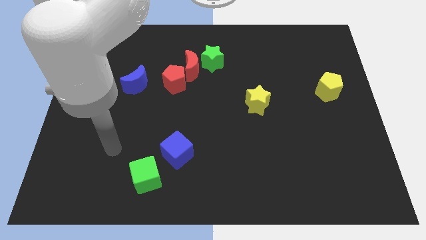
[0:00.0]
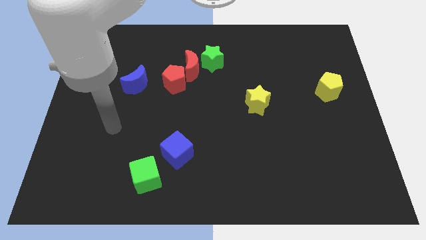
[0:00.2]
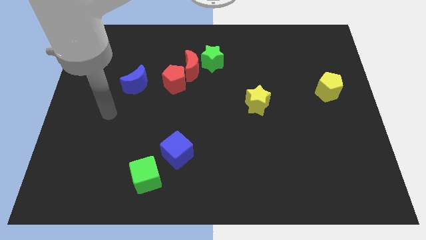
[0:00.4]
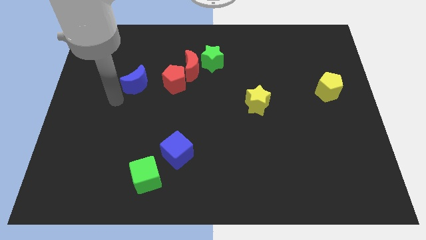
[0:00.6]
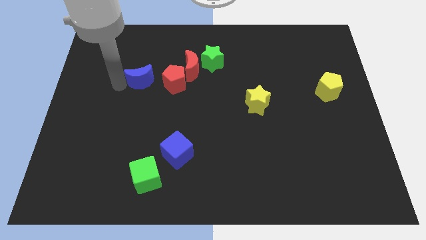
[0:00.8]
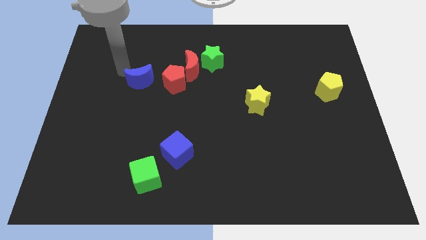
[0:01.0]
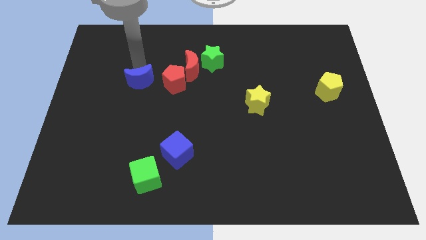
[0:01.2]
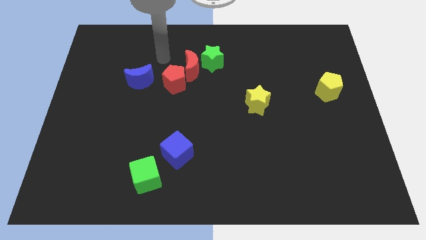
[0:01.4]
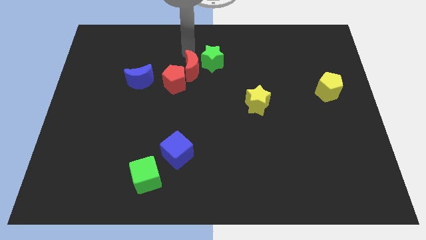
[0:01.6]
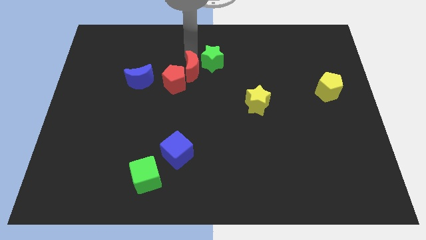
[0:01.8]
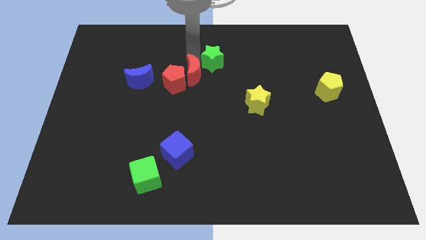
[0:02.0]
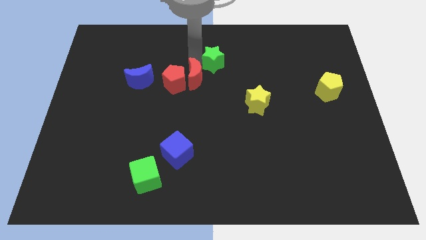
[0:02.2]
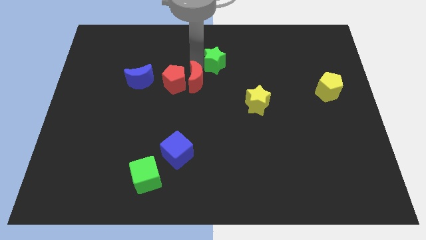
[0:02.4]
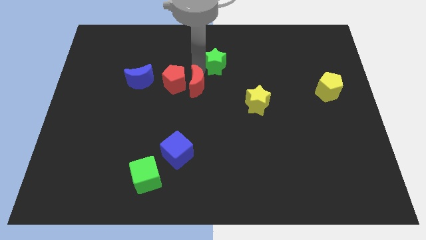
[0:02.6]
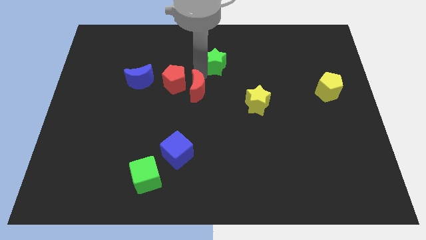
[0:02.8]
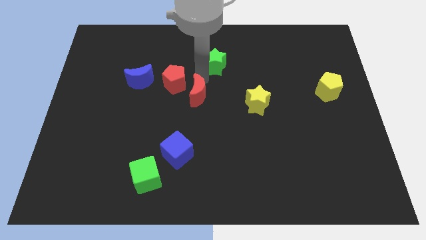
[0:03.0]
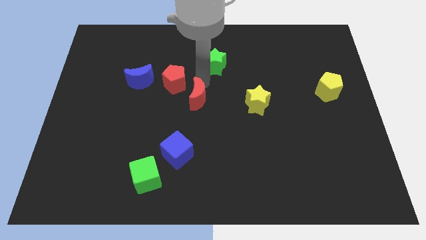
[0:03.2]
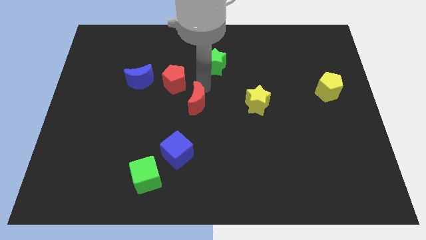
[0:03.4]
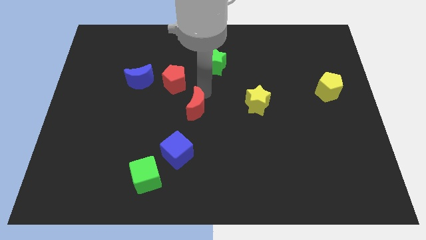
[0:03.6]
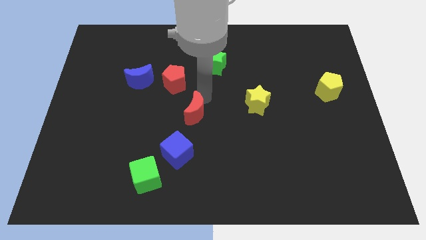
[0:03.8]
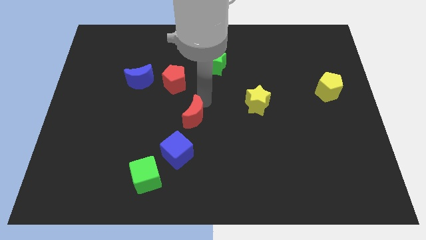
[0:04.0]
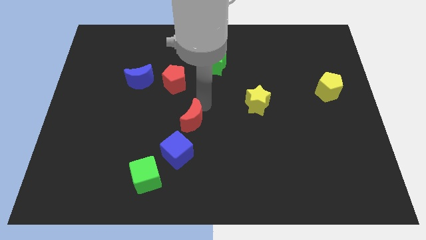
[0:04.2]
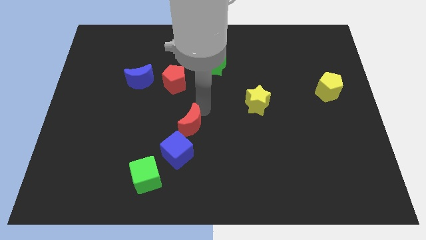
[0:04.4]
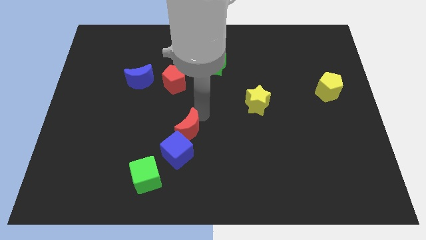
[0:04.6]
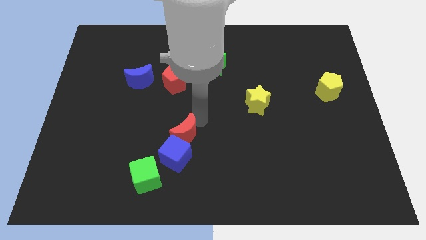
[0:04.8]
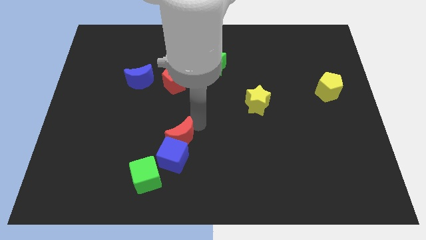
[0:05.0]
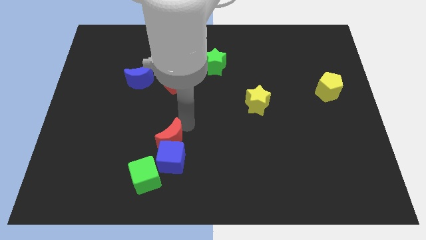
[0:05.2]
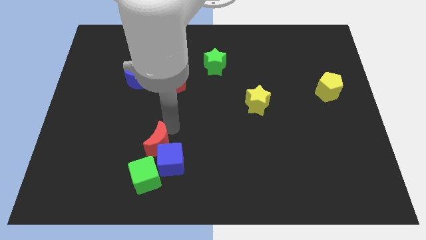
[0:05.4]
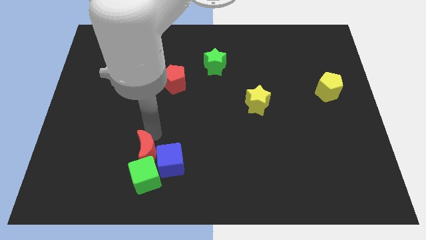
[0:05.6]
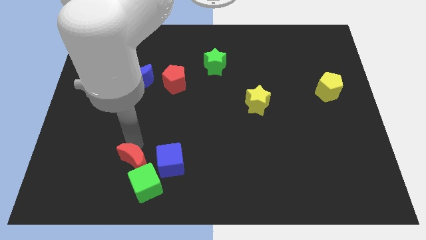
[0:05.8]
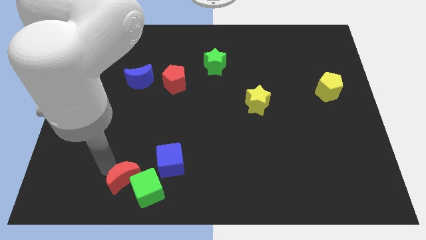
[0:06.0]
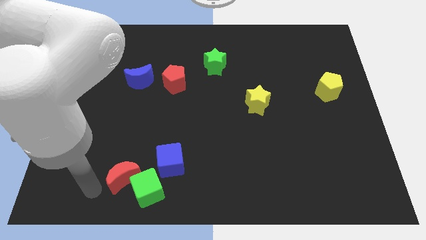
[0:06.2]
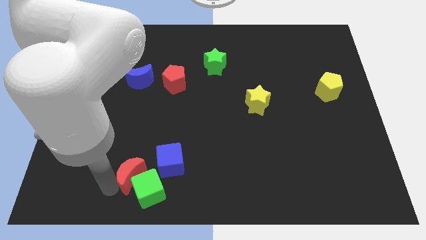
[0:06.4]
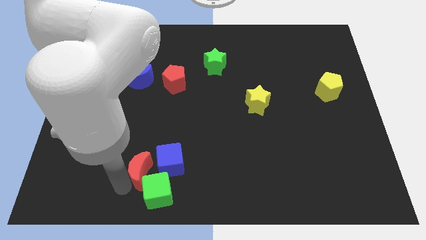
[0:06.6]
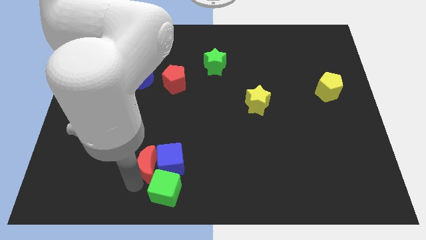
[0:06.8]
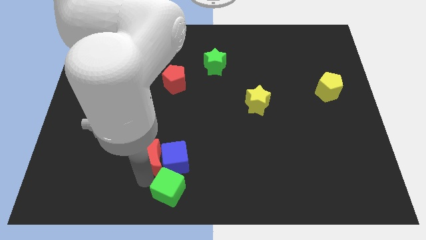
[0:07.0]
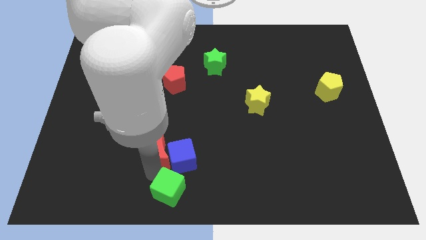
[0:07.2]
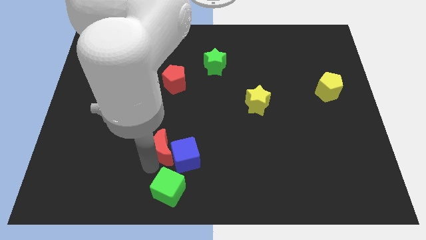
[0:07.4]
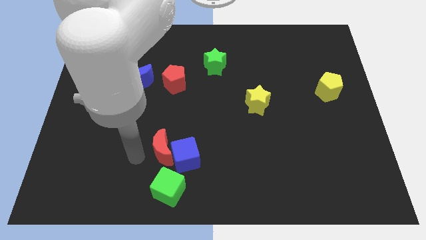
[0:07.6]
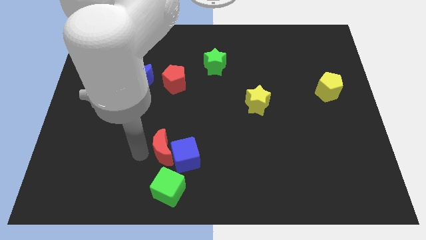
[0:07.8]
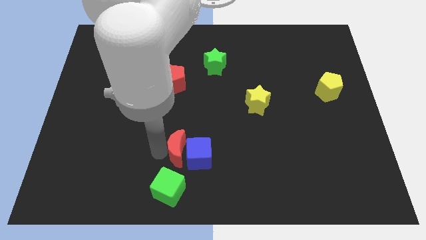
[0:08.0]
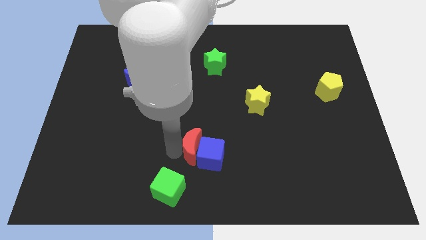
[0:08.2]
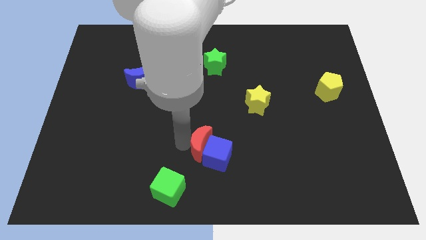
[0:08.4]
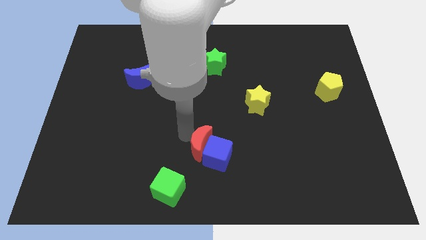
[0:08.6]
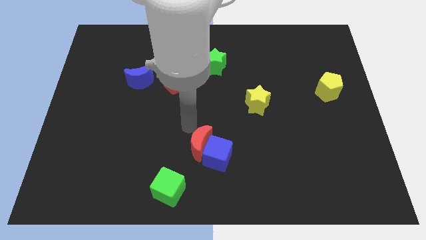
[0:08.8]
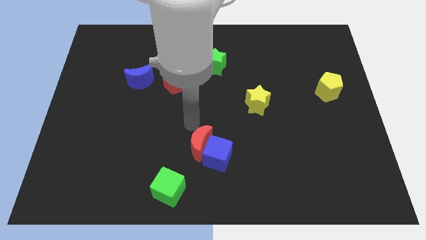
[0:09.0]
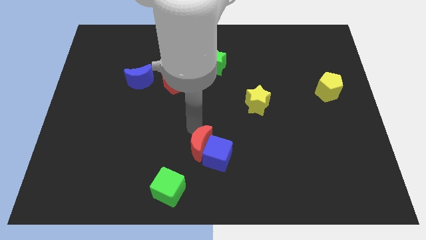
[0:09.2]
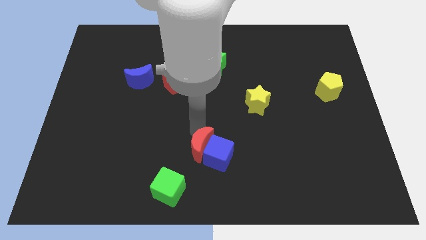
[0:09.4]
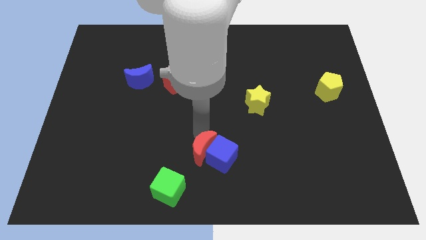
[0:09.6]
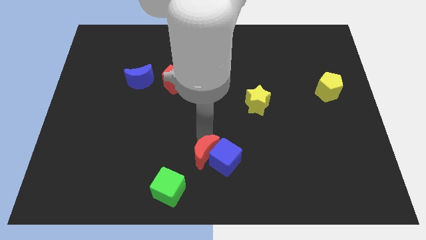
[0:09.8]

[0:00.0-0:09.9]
push the red moon to the bottom
